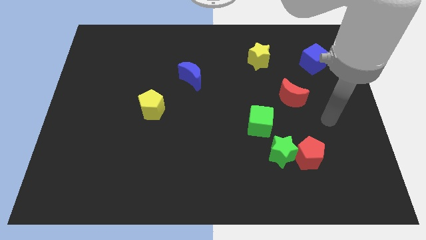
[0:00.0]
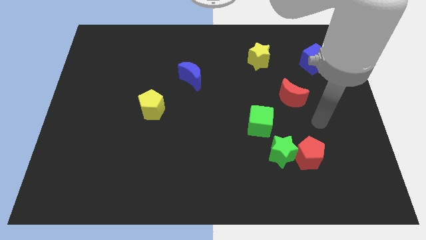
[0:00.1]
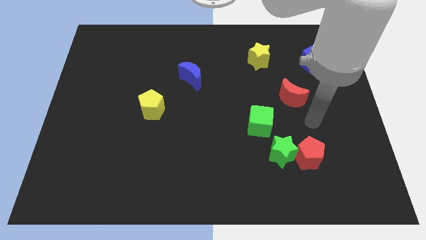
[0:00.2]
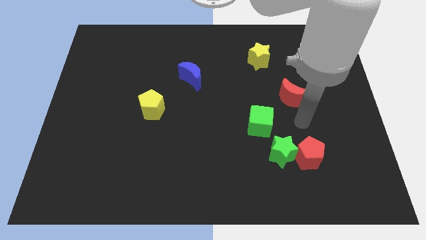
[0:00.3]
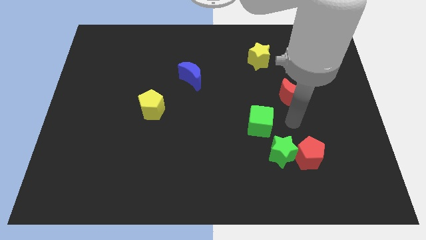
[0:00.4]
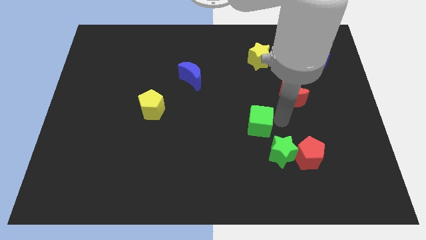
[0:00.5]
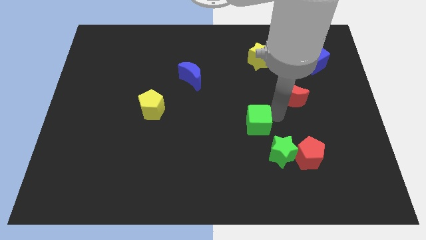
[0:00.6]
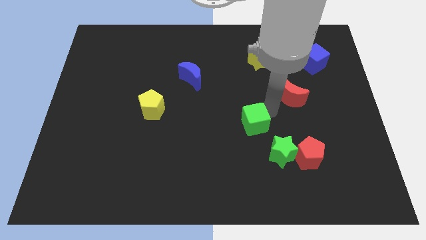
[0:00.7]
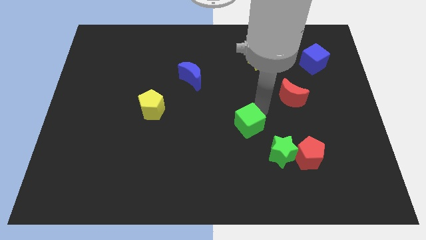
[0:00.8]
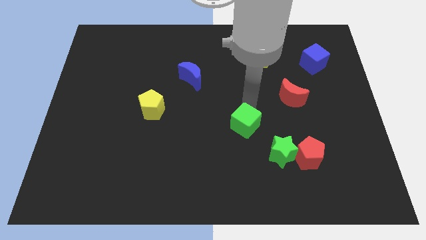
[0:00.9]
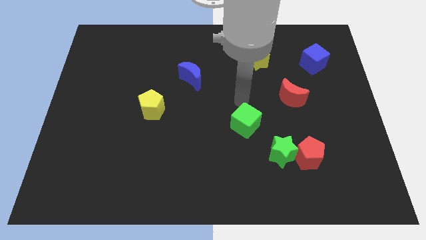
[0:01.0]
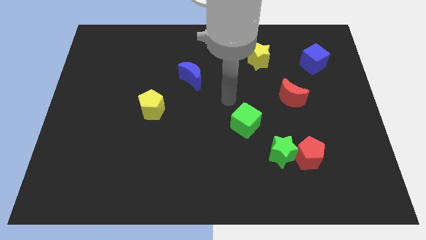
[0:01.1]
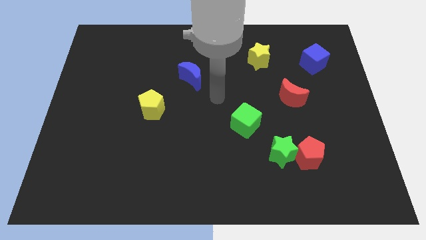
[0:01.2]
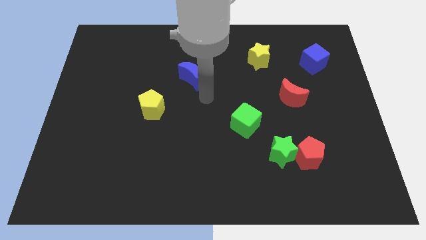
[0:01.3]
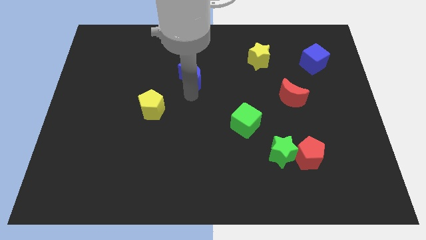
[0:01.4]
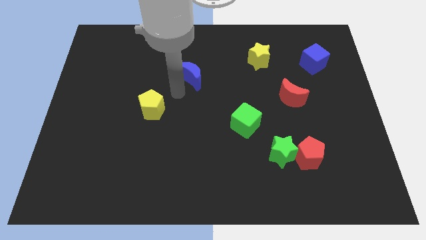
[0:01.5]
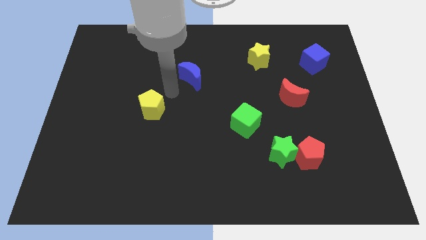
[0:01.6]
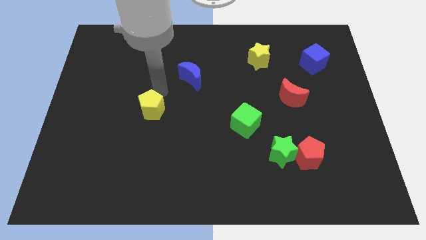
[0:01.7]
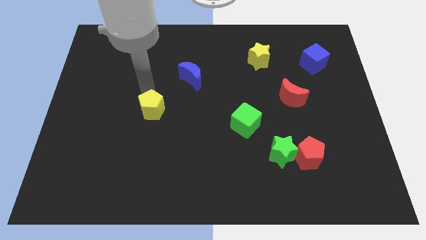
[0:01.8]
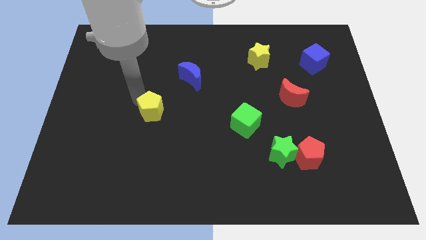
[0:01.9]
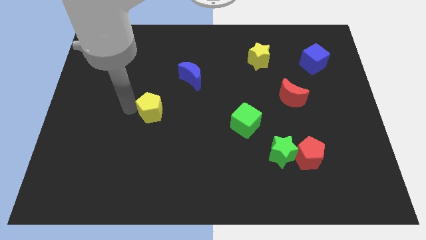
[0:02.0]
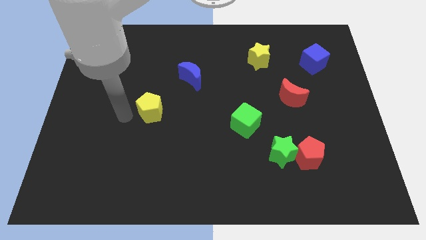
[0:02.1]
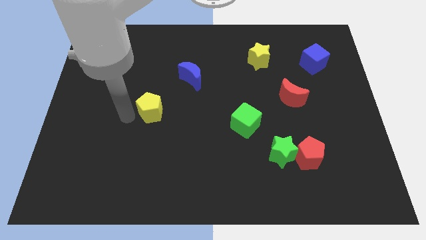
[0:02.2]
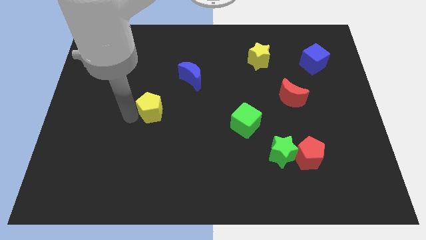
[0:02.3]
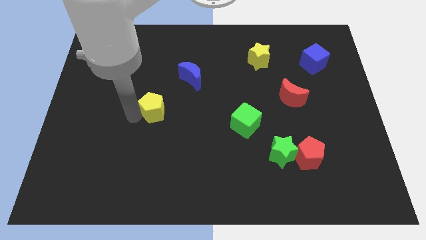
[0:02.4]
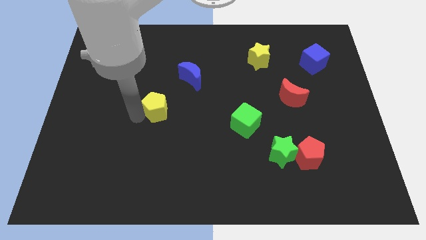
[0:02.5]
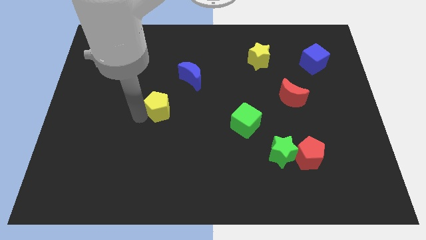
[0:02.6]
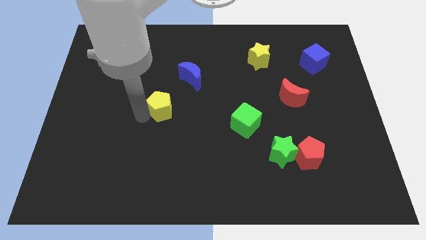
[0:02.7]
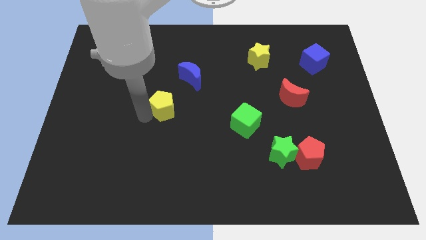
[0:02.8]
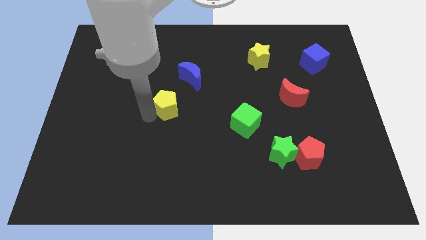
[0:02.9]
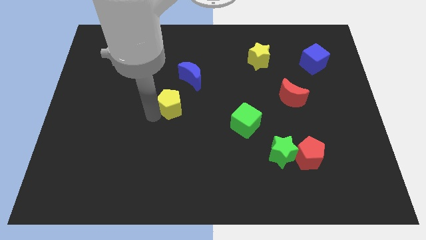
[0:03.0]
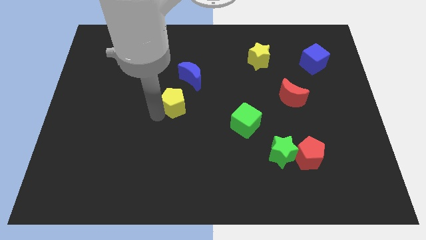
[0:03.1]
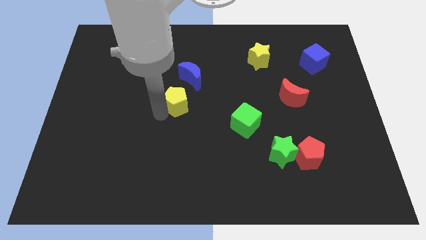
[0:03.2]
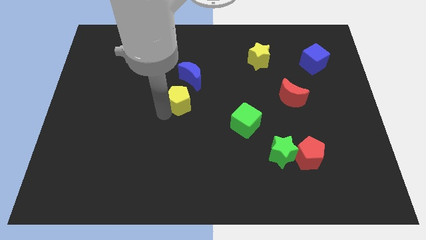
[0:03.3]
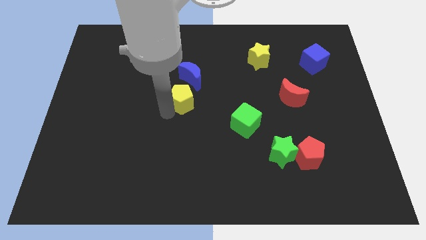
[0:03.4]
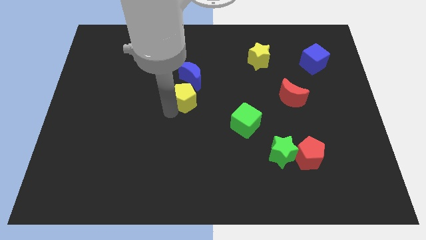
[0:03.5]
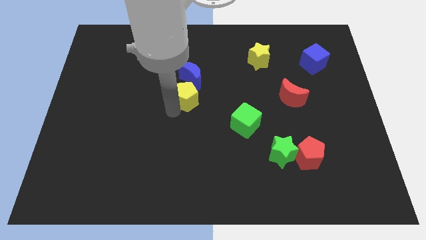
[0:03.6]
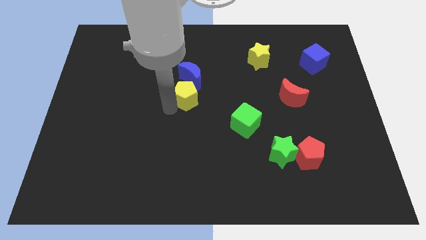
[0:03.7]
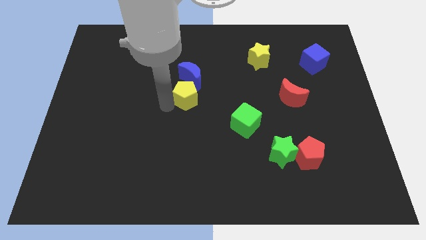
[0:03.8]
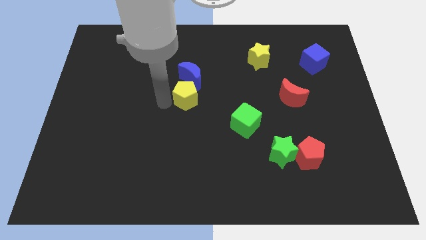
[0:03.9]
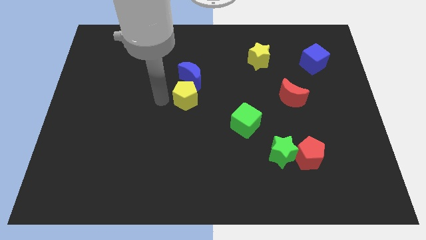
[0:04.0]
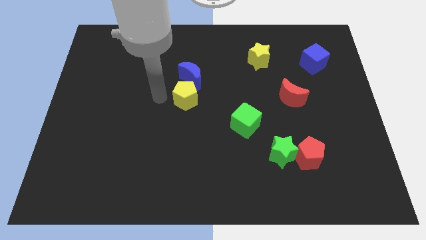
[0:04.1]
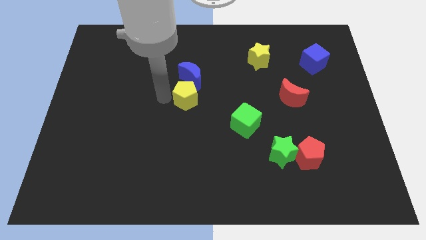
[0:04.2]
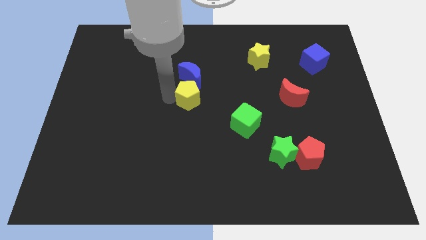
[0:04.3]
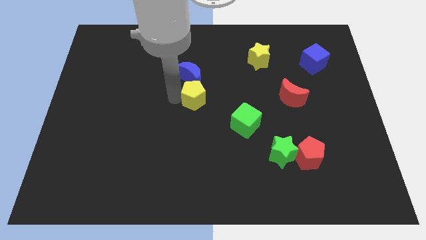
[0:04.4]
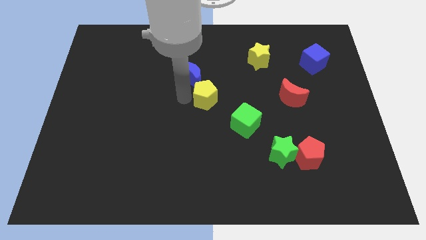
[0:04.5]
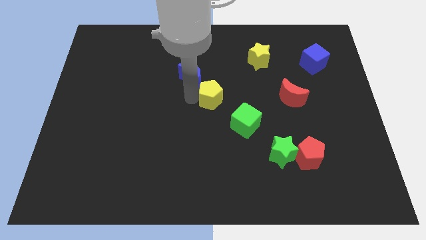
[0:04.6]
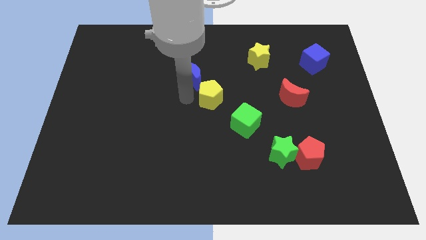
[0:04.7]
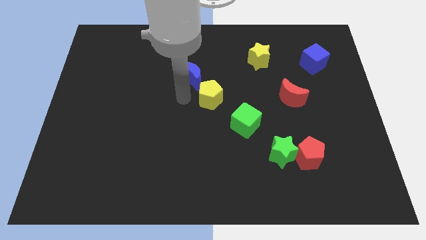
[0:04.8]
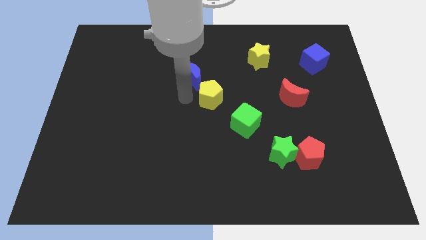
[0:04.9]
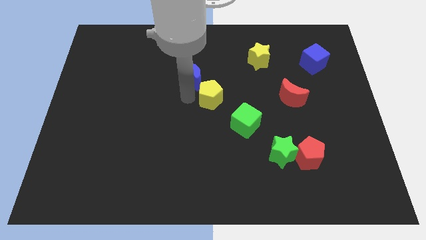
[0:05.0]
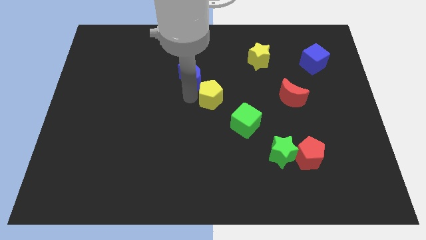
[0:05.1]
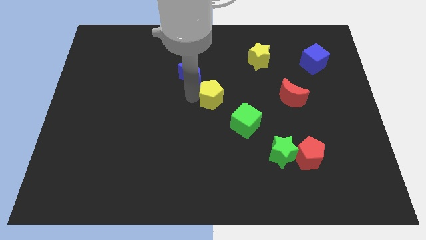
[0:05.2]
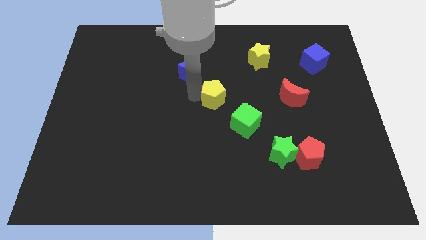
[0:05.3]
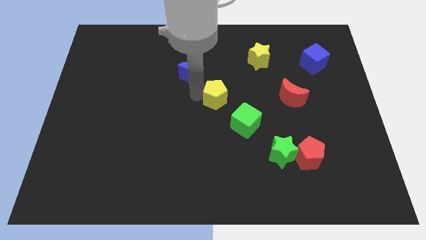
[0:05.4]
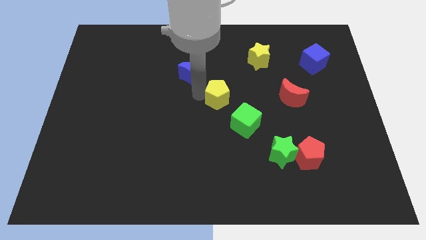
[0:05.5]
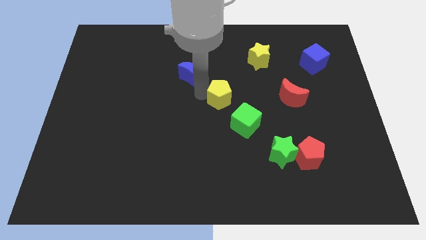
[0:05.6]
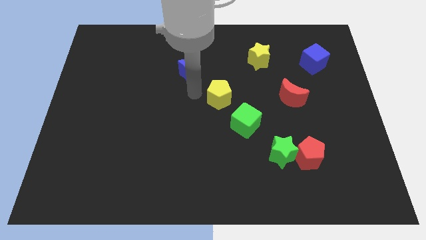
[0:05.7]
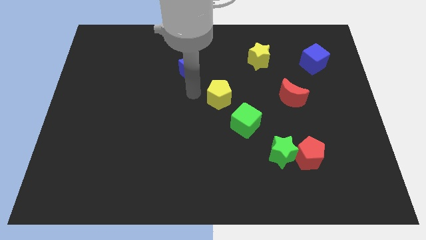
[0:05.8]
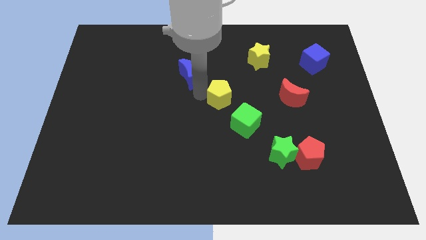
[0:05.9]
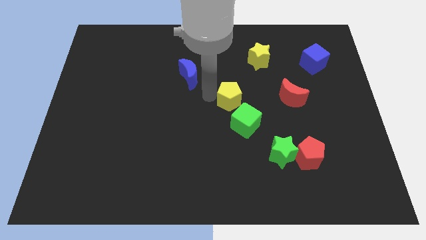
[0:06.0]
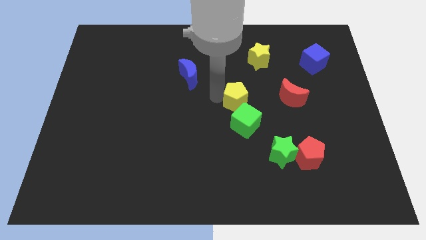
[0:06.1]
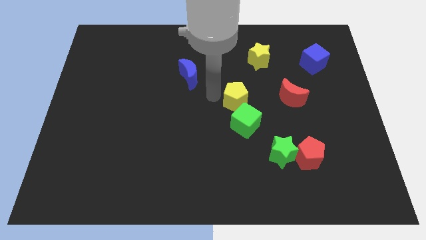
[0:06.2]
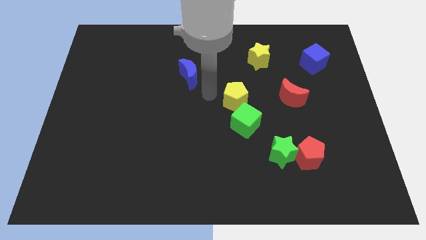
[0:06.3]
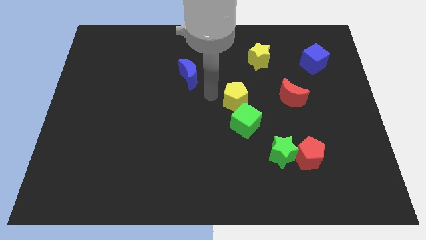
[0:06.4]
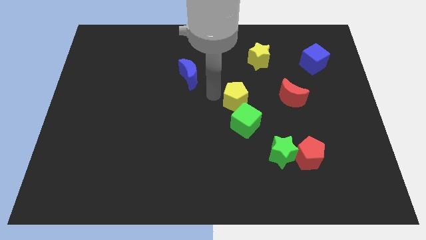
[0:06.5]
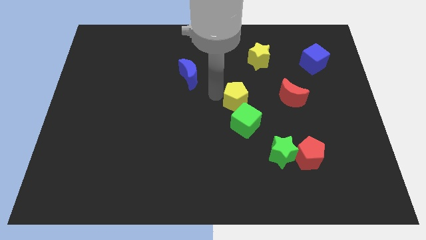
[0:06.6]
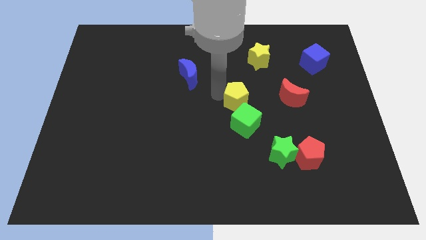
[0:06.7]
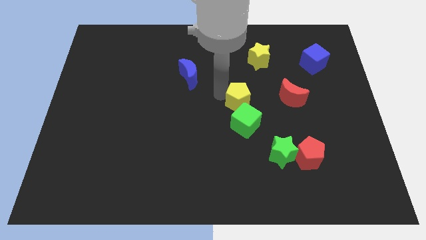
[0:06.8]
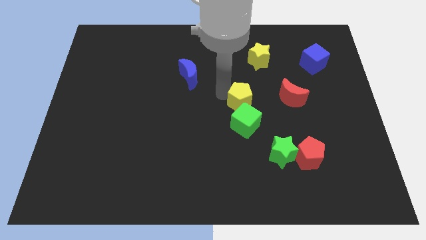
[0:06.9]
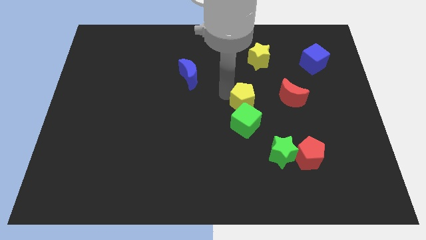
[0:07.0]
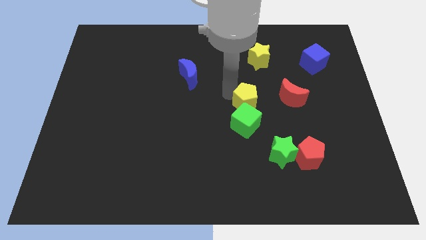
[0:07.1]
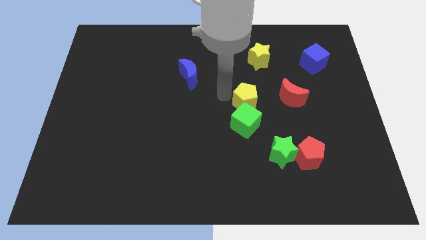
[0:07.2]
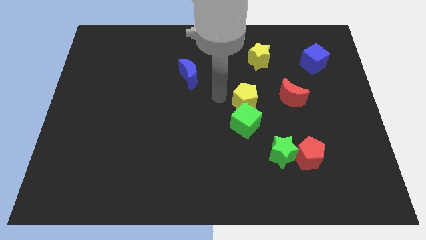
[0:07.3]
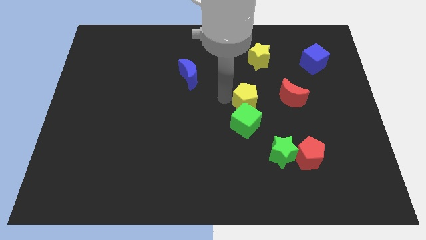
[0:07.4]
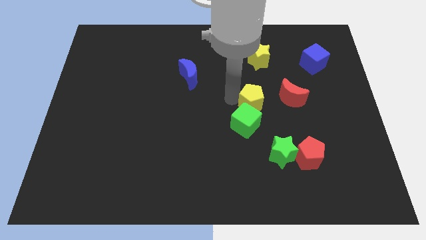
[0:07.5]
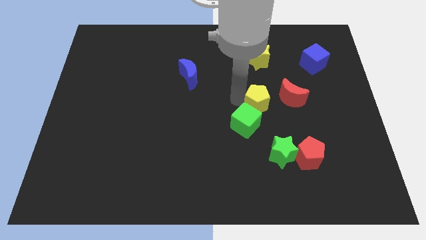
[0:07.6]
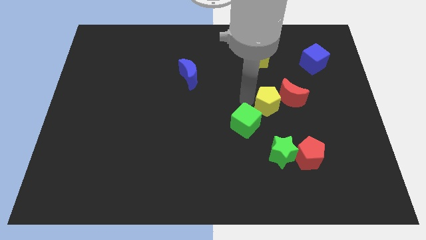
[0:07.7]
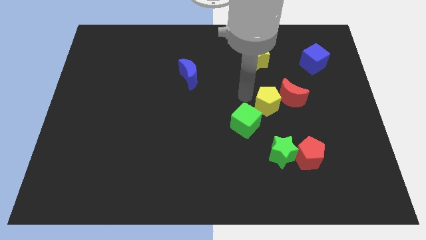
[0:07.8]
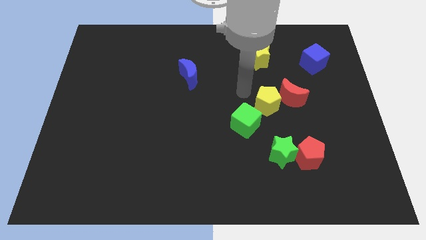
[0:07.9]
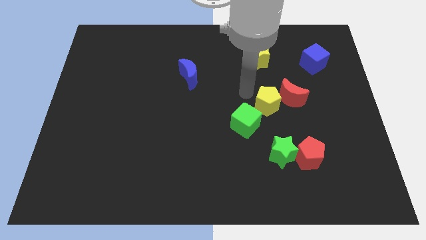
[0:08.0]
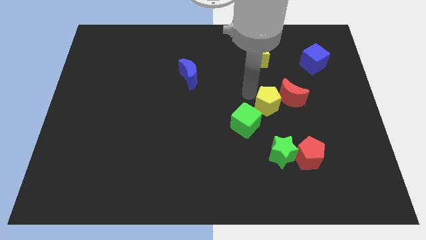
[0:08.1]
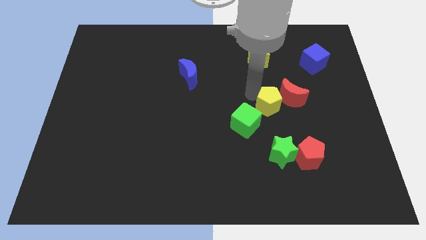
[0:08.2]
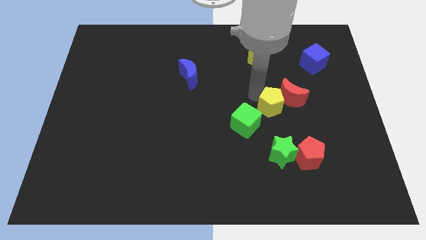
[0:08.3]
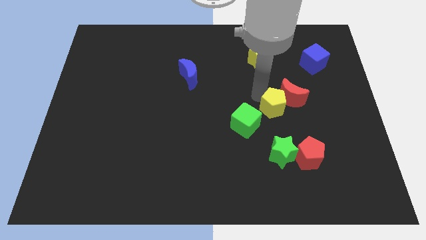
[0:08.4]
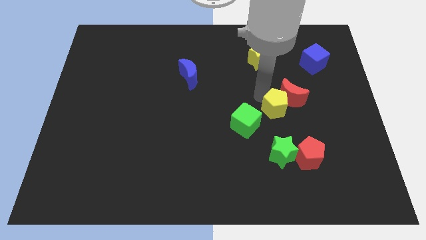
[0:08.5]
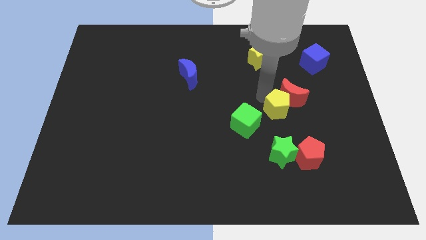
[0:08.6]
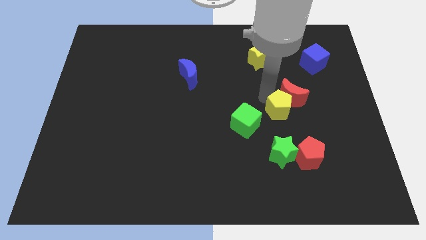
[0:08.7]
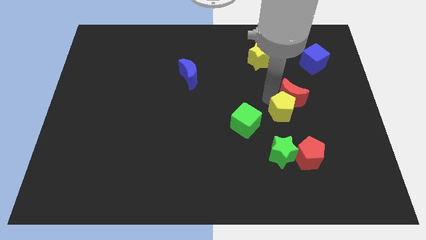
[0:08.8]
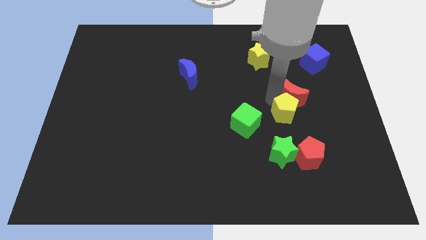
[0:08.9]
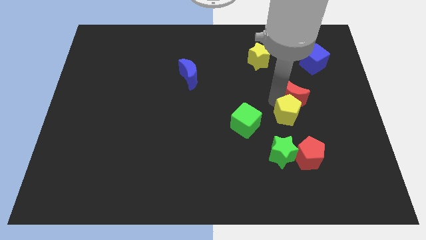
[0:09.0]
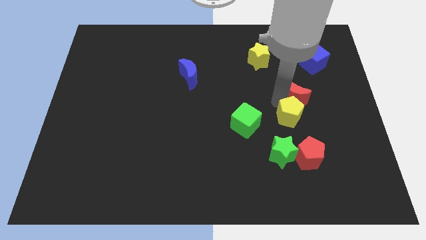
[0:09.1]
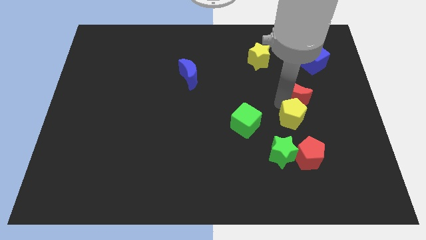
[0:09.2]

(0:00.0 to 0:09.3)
put the yellow pentagon to the top right of the green star
